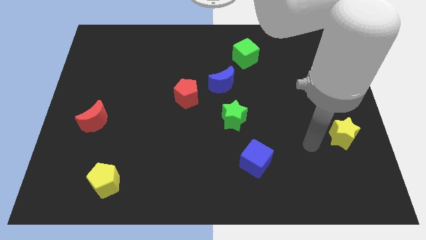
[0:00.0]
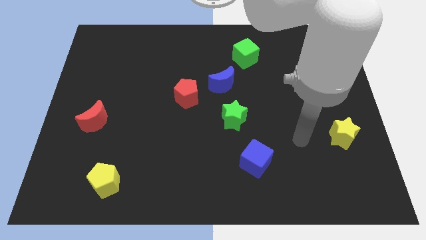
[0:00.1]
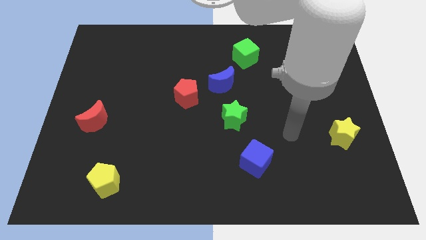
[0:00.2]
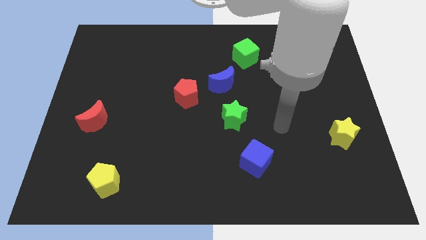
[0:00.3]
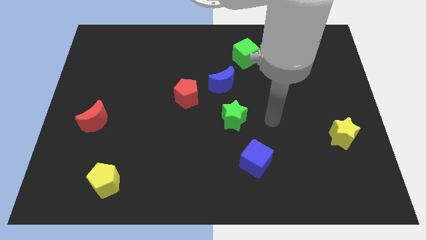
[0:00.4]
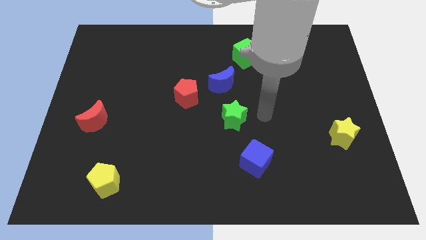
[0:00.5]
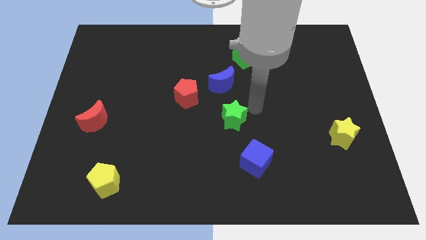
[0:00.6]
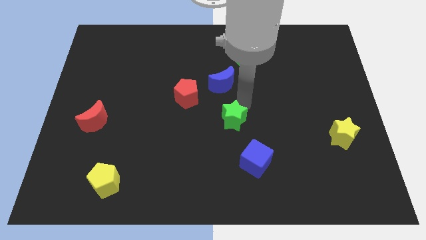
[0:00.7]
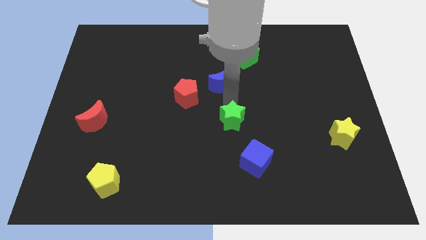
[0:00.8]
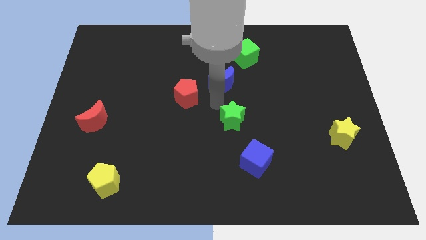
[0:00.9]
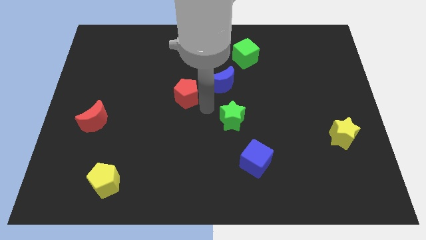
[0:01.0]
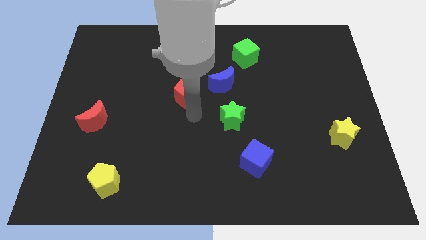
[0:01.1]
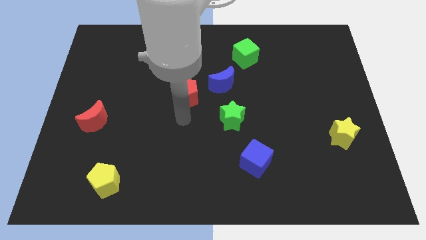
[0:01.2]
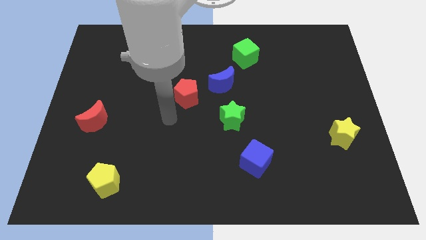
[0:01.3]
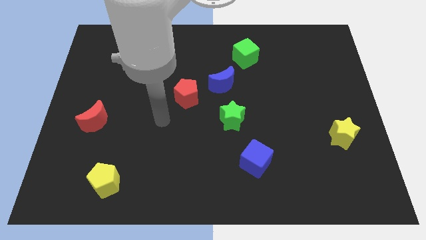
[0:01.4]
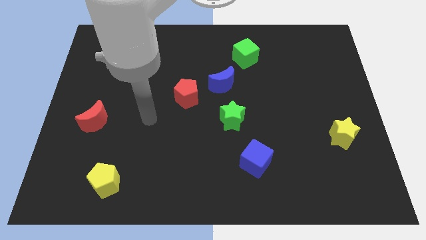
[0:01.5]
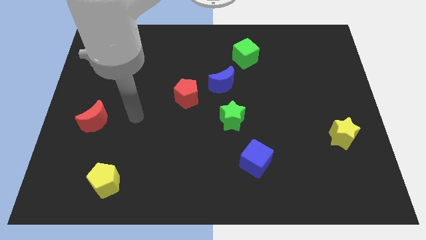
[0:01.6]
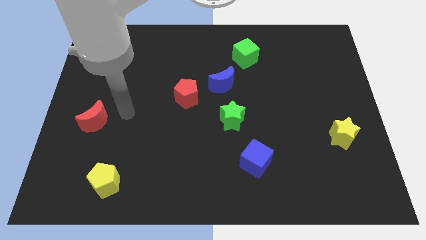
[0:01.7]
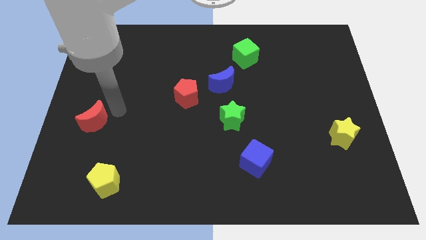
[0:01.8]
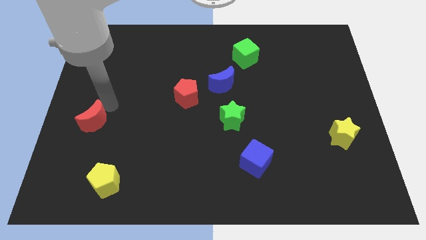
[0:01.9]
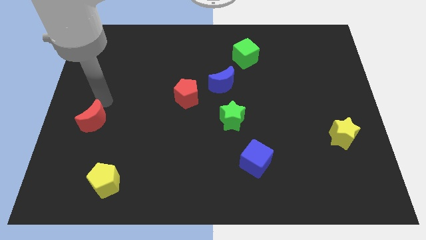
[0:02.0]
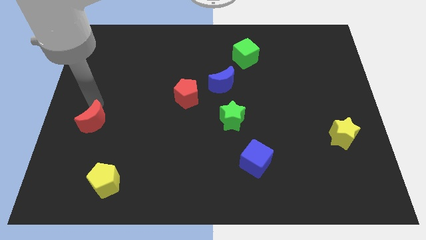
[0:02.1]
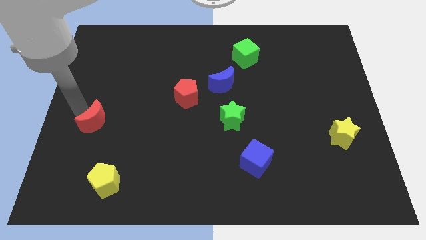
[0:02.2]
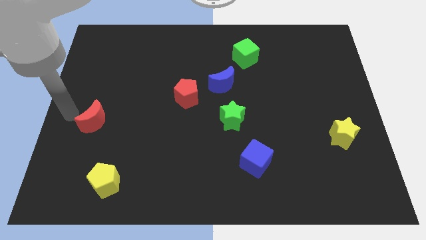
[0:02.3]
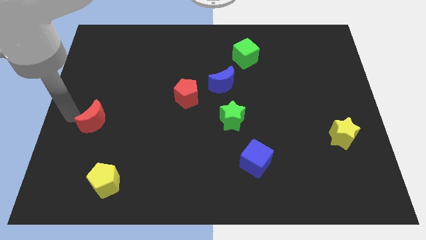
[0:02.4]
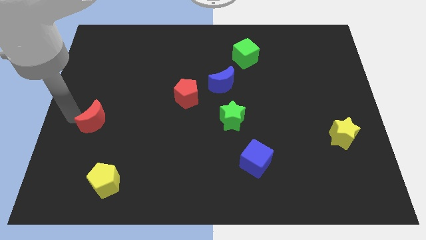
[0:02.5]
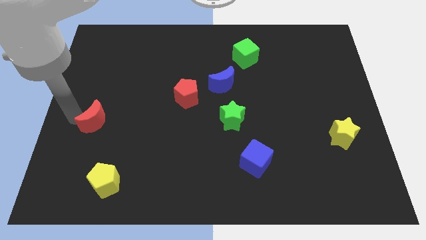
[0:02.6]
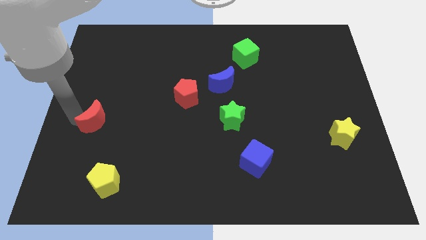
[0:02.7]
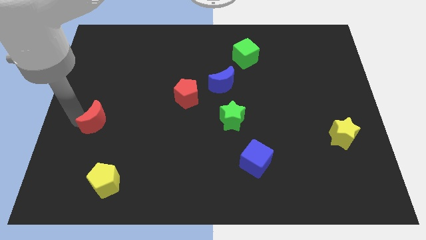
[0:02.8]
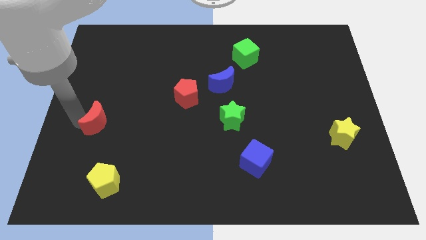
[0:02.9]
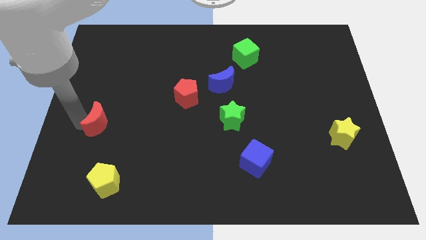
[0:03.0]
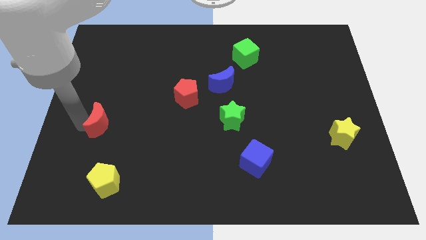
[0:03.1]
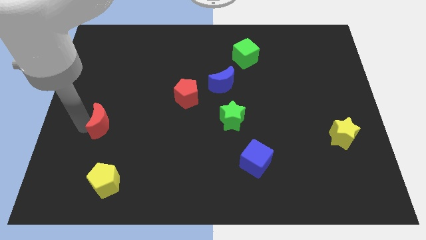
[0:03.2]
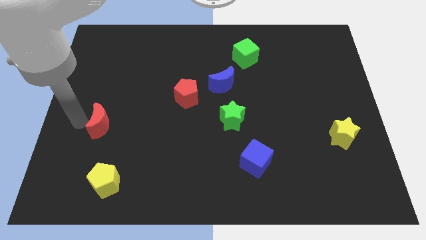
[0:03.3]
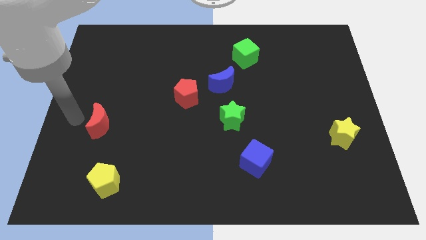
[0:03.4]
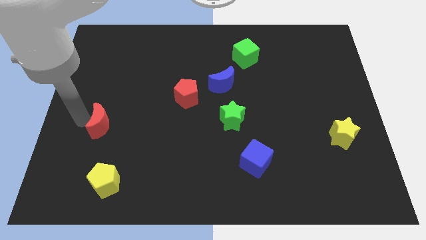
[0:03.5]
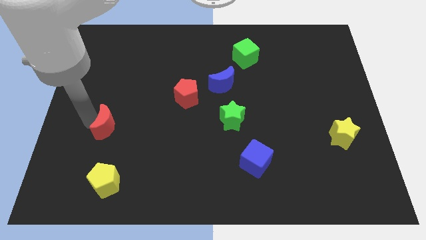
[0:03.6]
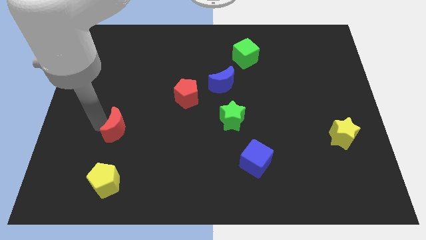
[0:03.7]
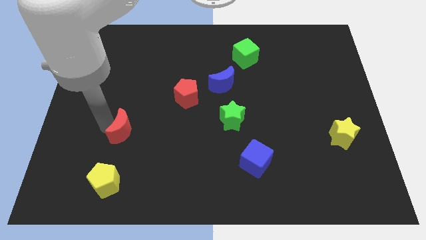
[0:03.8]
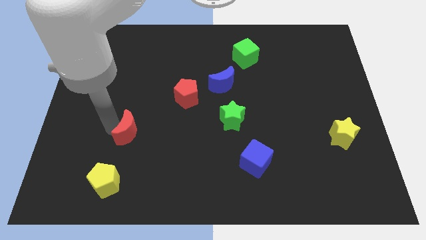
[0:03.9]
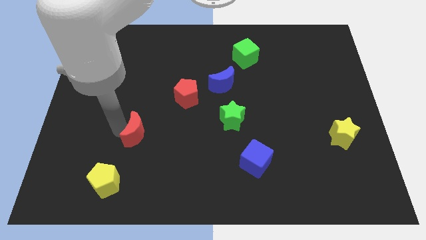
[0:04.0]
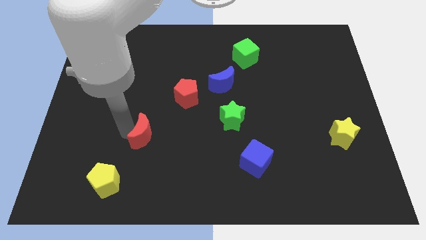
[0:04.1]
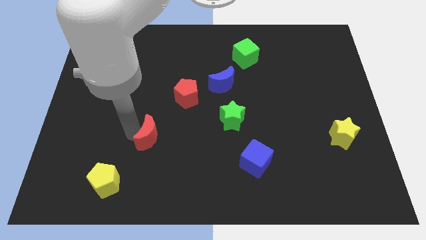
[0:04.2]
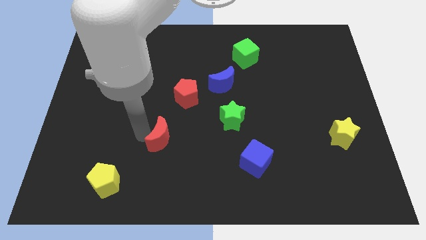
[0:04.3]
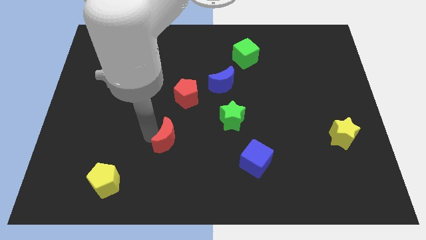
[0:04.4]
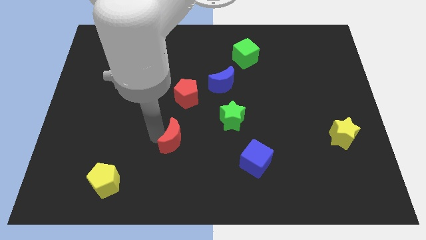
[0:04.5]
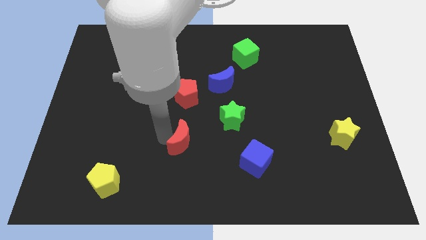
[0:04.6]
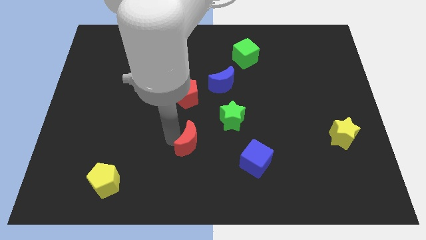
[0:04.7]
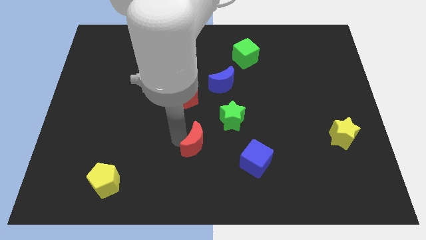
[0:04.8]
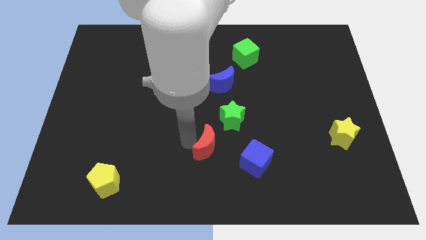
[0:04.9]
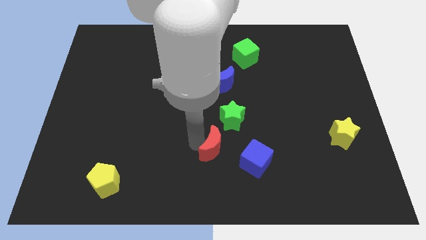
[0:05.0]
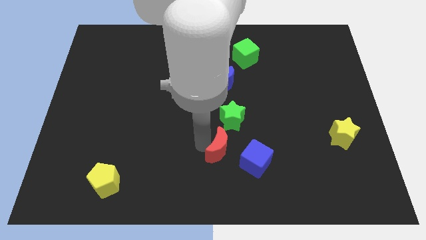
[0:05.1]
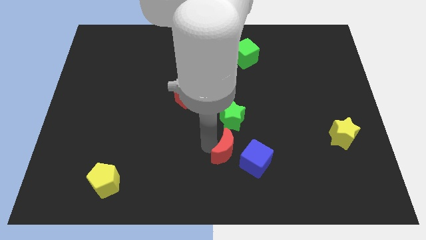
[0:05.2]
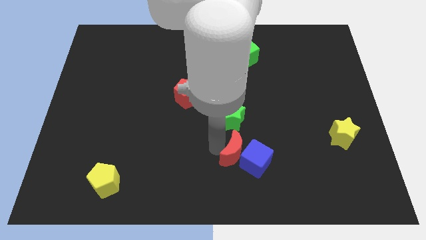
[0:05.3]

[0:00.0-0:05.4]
slide the red moon next to the blue cube

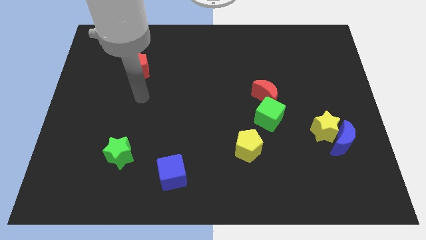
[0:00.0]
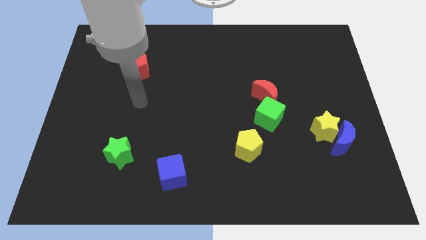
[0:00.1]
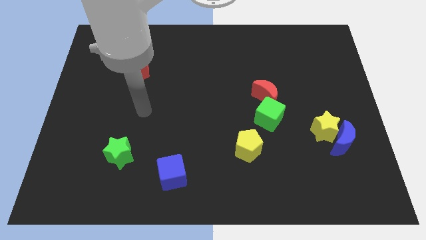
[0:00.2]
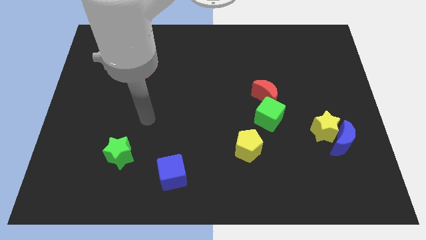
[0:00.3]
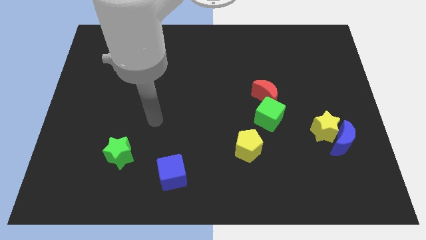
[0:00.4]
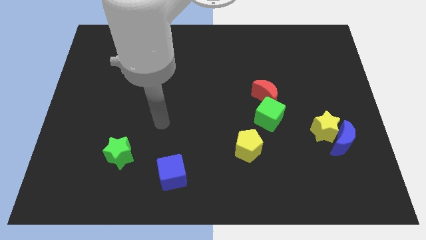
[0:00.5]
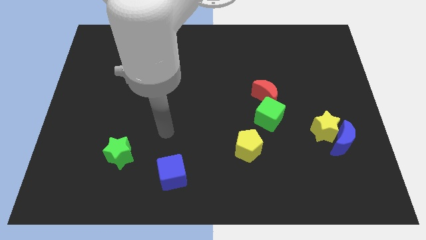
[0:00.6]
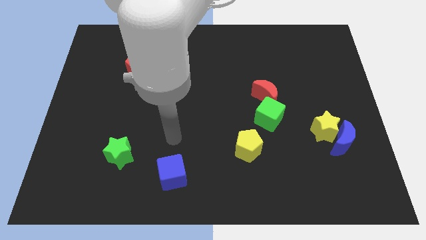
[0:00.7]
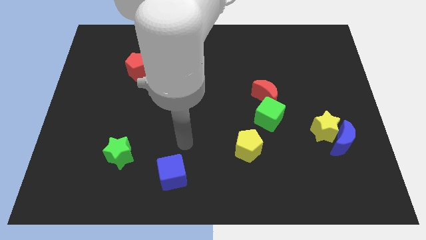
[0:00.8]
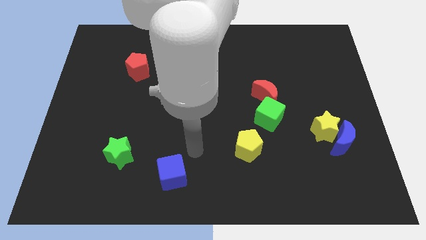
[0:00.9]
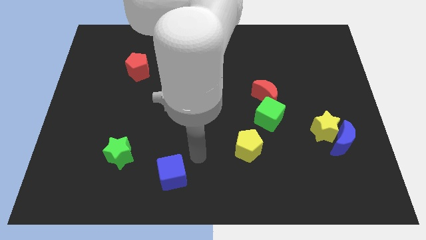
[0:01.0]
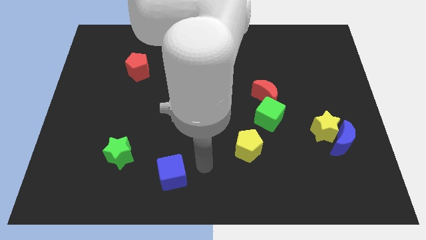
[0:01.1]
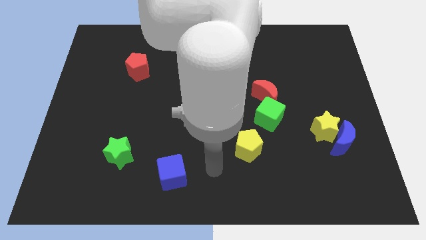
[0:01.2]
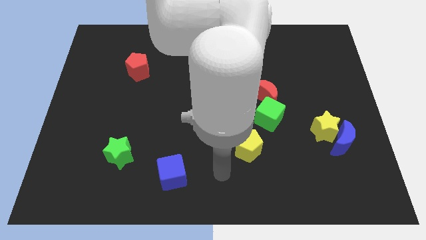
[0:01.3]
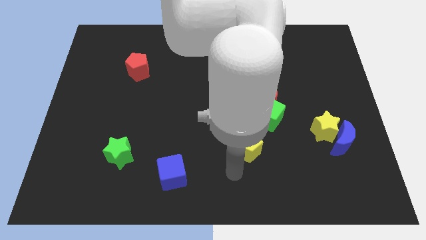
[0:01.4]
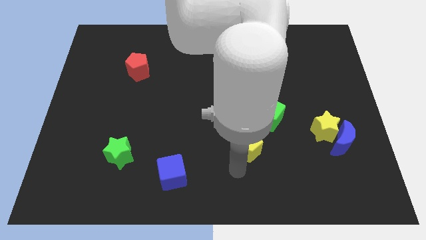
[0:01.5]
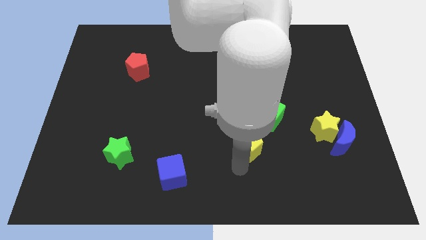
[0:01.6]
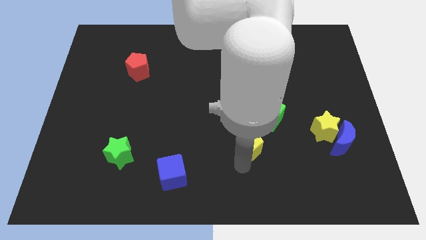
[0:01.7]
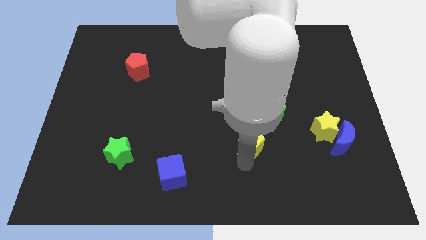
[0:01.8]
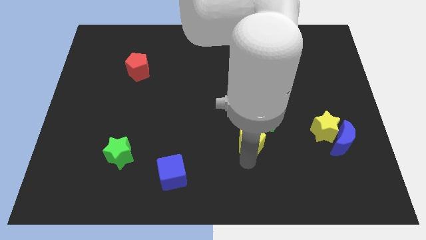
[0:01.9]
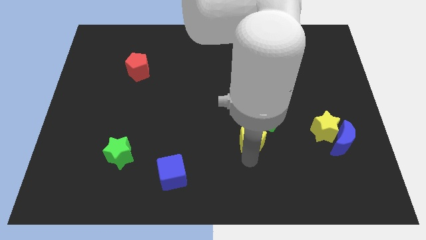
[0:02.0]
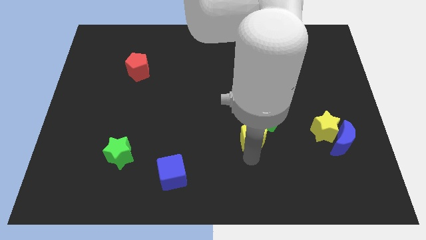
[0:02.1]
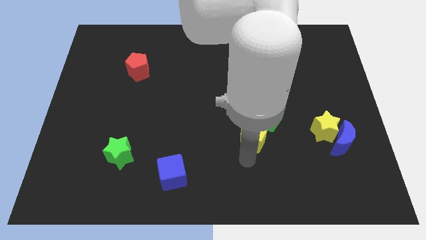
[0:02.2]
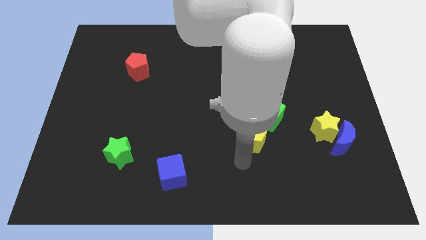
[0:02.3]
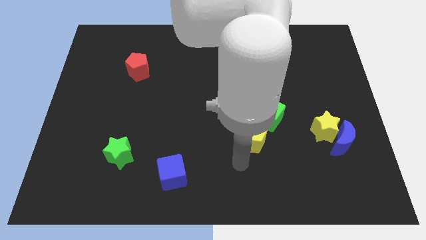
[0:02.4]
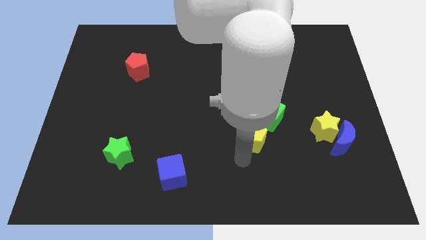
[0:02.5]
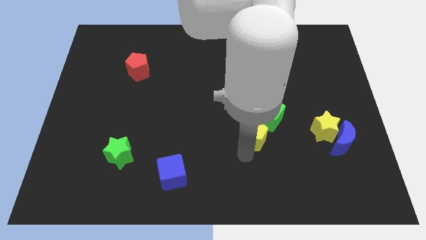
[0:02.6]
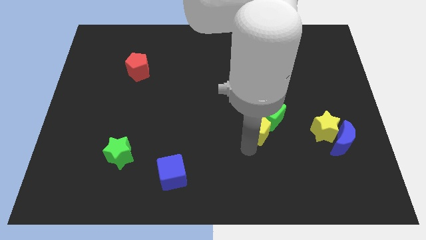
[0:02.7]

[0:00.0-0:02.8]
push the yellow pentagon next to the green cube
